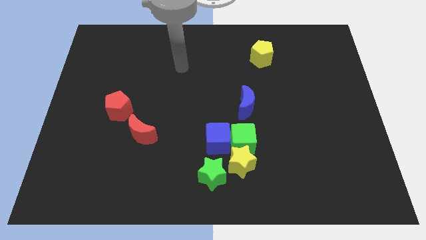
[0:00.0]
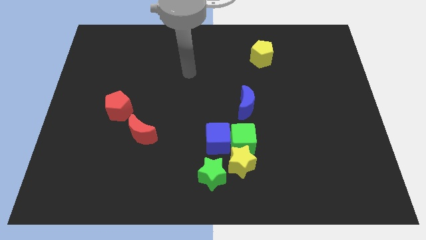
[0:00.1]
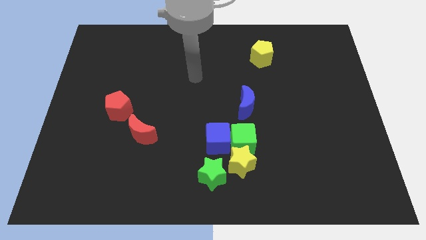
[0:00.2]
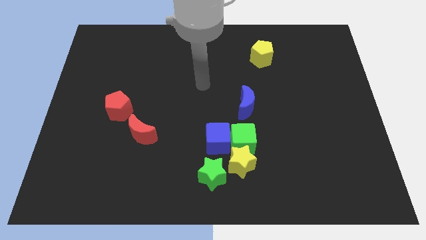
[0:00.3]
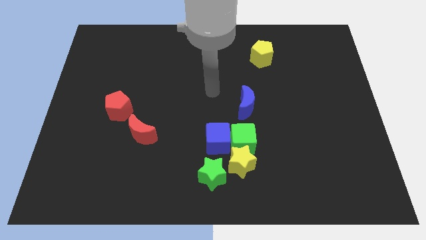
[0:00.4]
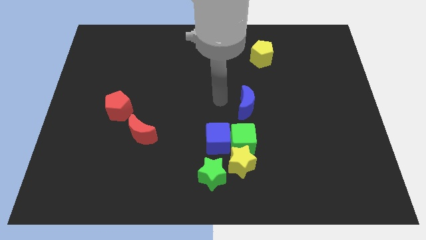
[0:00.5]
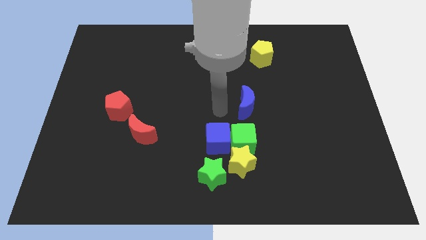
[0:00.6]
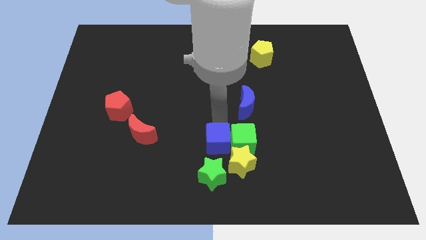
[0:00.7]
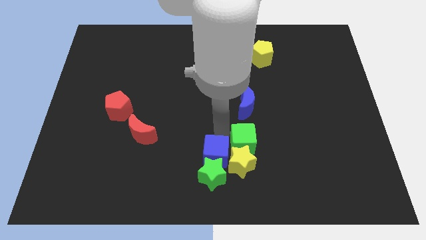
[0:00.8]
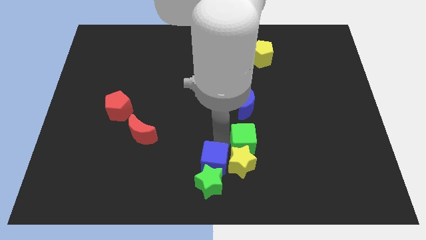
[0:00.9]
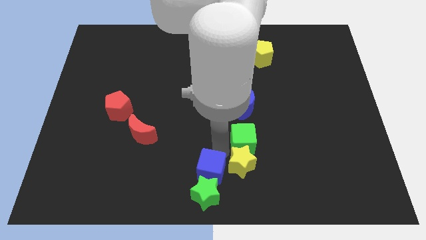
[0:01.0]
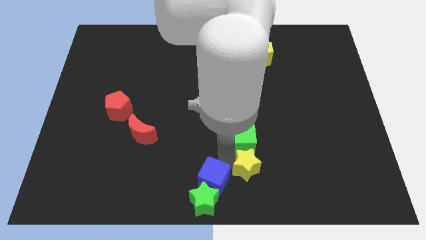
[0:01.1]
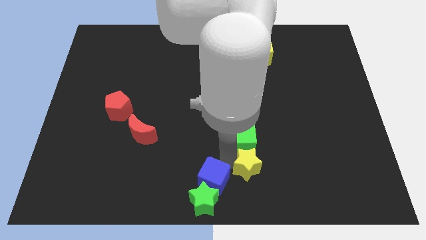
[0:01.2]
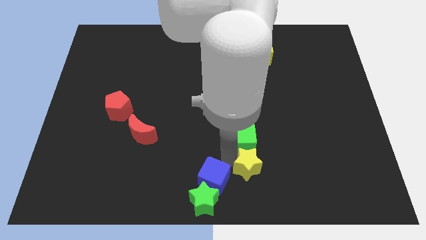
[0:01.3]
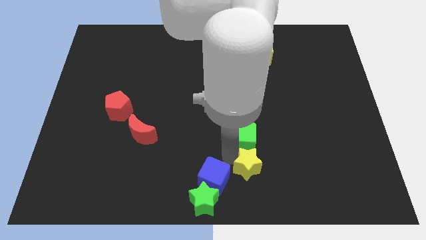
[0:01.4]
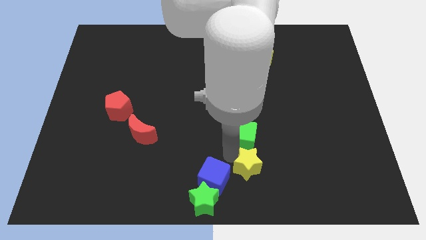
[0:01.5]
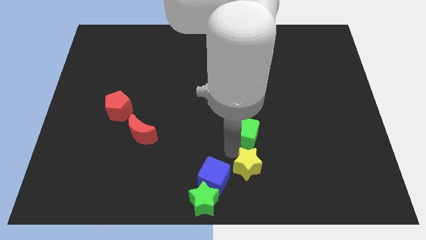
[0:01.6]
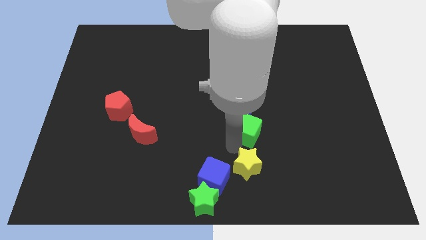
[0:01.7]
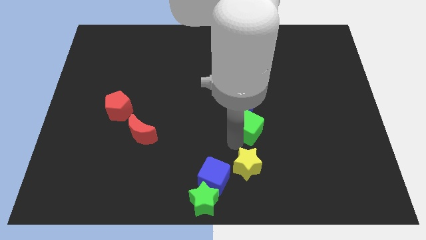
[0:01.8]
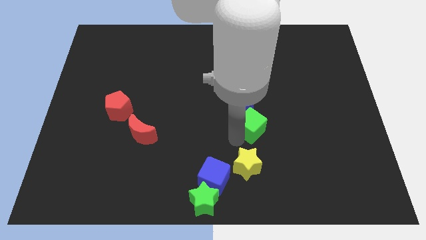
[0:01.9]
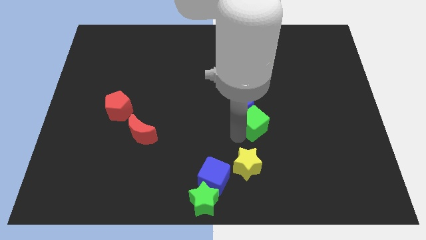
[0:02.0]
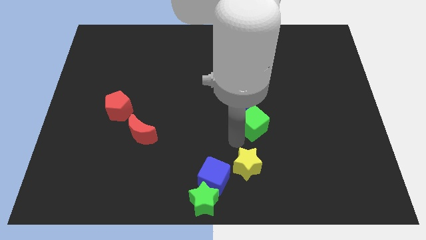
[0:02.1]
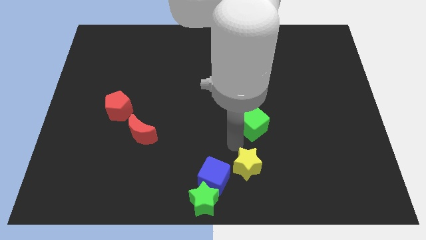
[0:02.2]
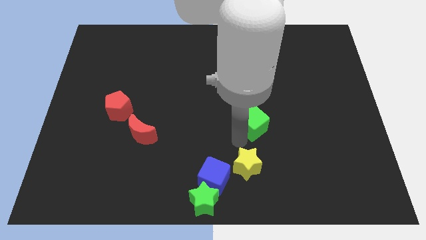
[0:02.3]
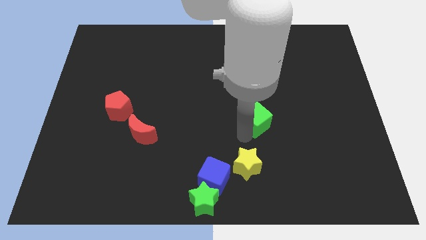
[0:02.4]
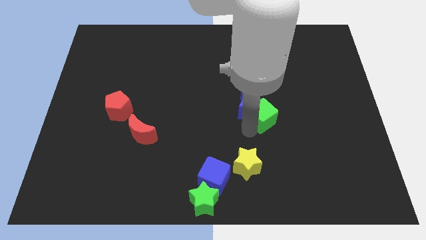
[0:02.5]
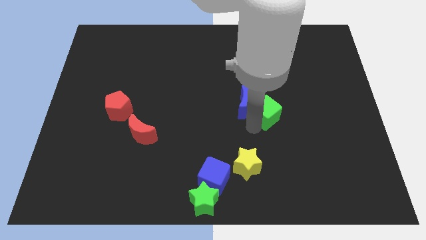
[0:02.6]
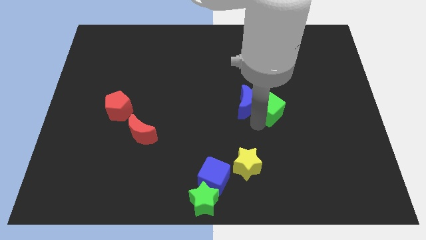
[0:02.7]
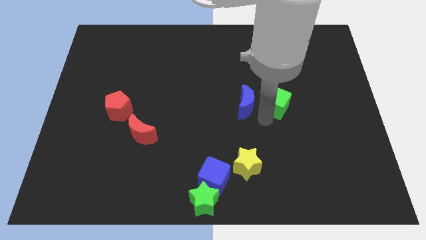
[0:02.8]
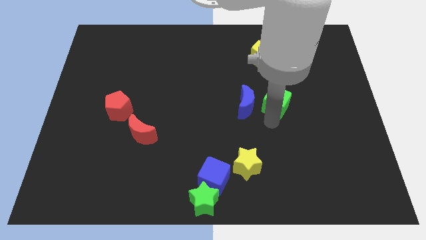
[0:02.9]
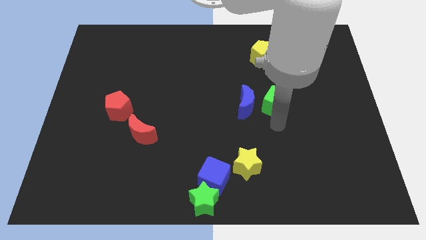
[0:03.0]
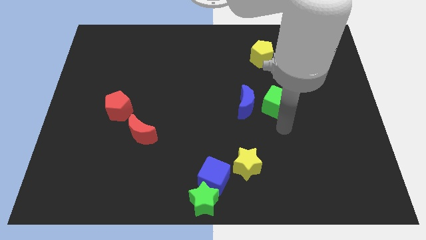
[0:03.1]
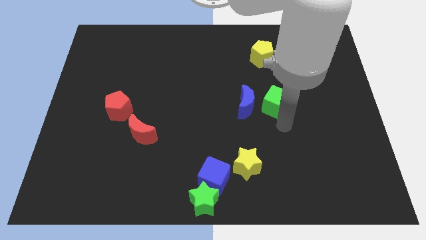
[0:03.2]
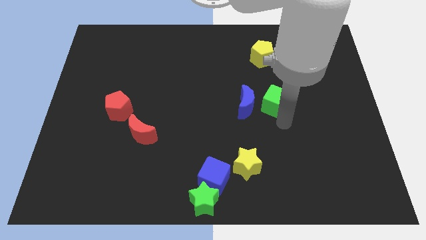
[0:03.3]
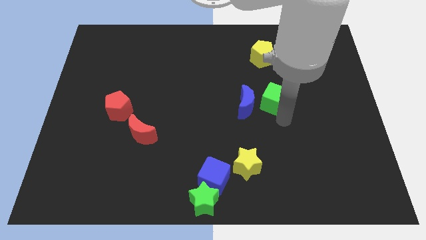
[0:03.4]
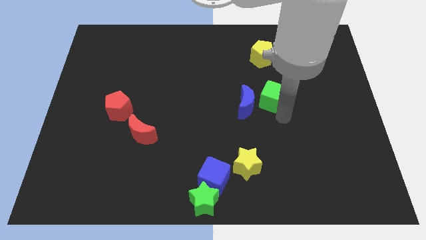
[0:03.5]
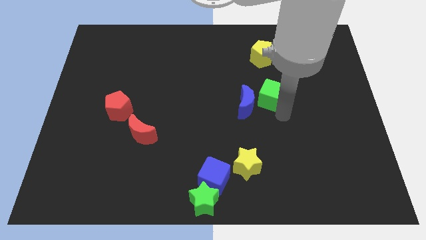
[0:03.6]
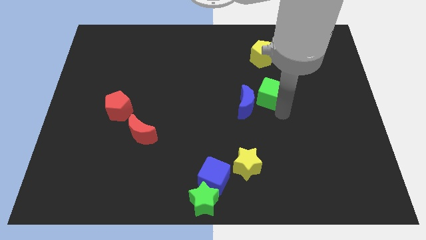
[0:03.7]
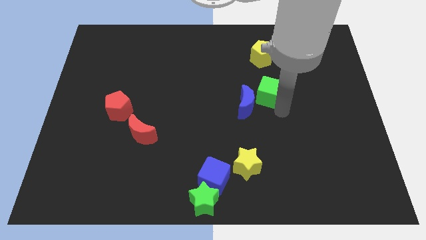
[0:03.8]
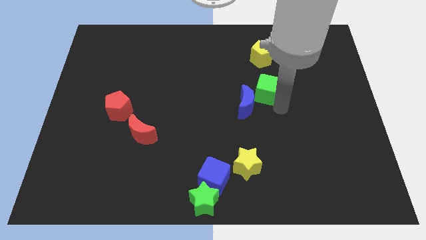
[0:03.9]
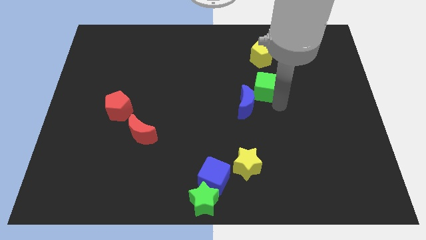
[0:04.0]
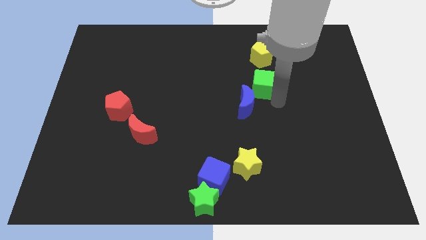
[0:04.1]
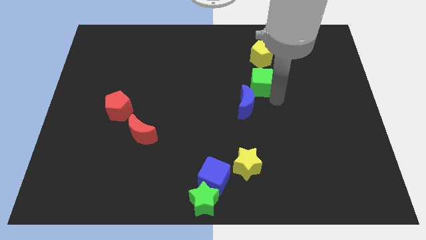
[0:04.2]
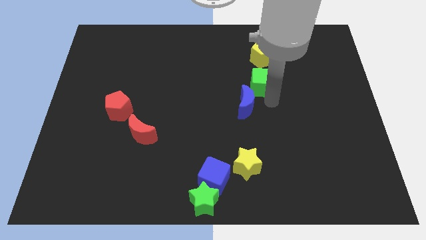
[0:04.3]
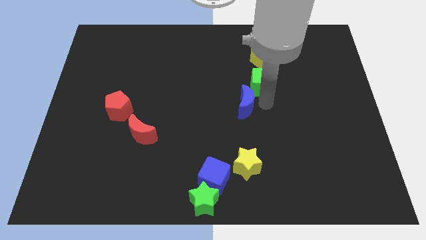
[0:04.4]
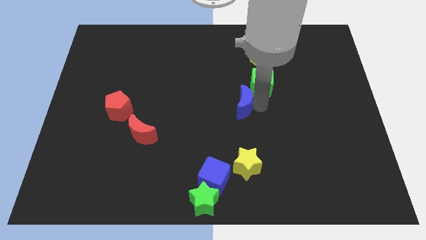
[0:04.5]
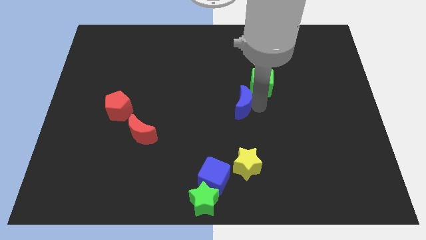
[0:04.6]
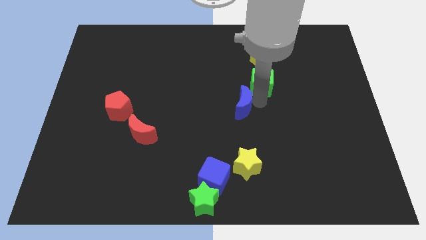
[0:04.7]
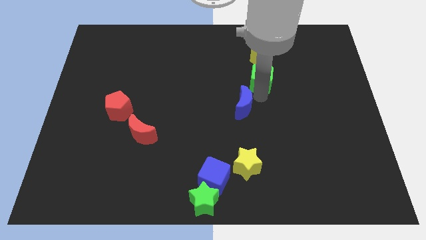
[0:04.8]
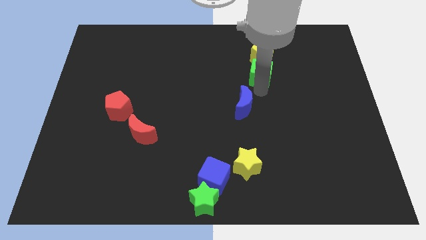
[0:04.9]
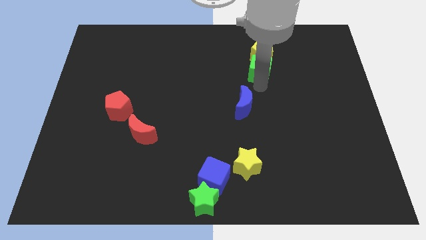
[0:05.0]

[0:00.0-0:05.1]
move the green cube to the yellow pentagon
